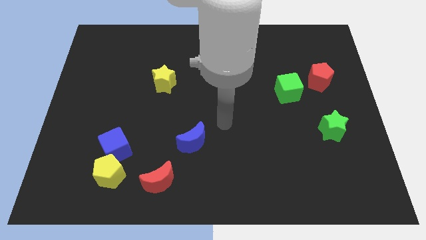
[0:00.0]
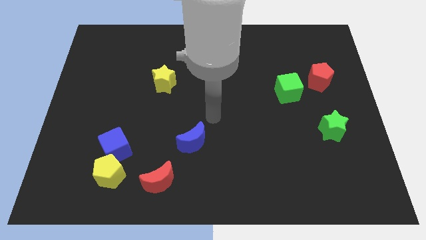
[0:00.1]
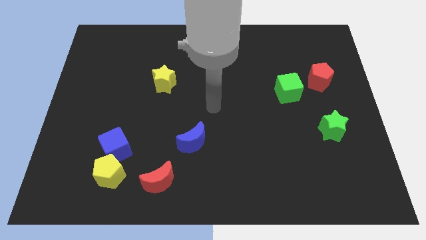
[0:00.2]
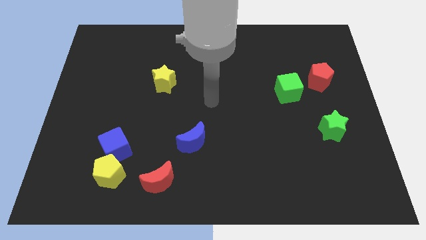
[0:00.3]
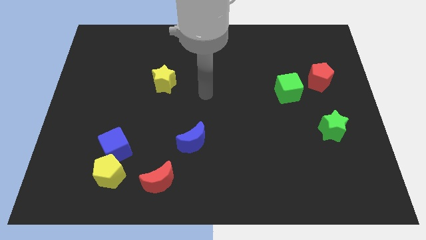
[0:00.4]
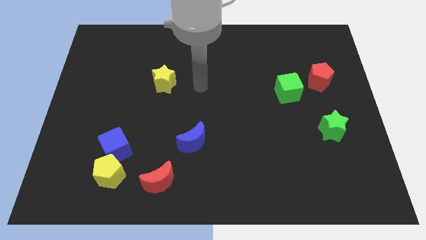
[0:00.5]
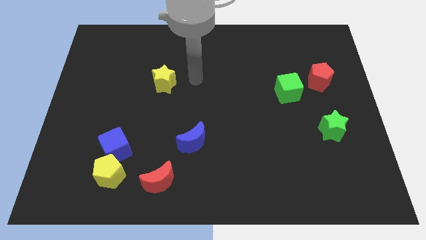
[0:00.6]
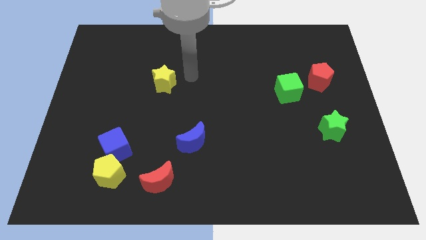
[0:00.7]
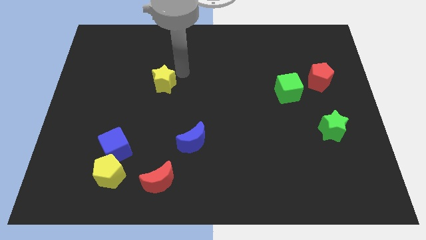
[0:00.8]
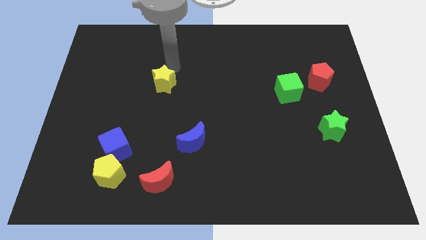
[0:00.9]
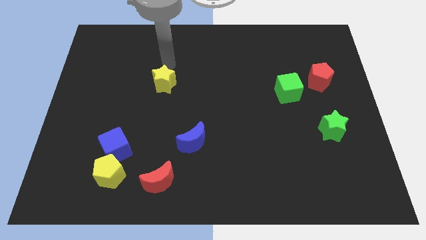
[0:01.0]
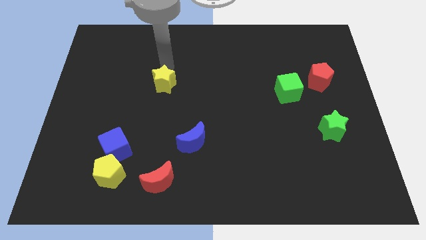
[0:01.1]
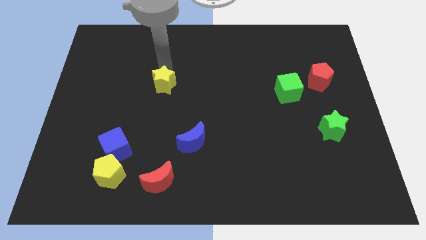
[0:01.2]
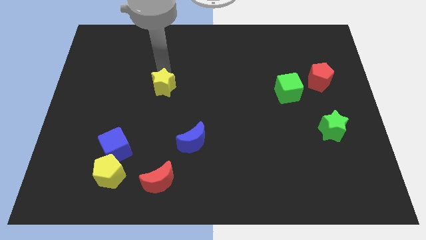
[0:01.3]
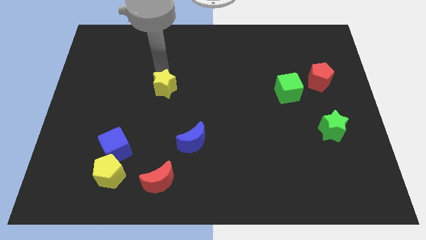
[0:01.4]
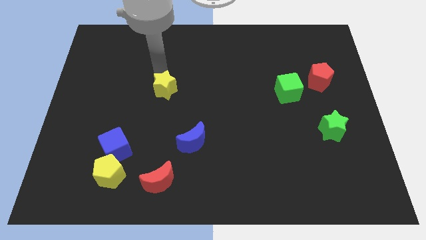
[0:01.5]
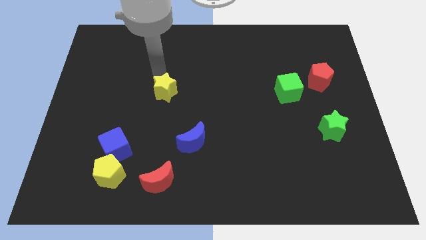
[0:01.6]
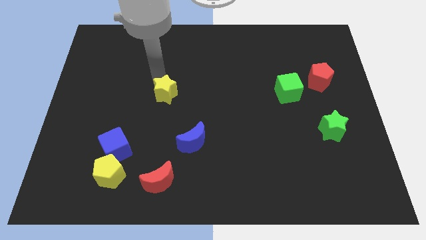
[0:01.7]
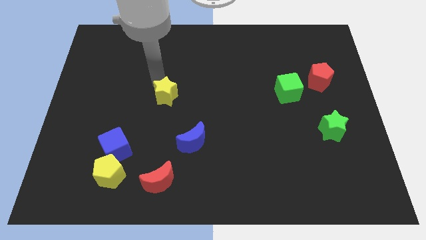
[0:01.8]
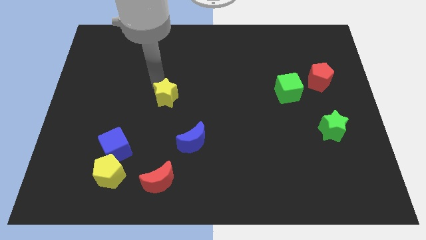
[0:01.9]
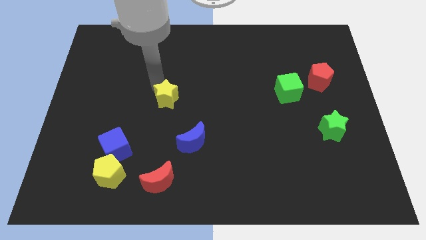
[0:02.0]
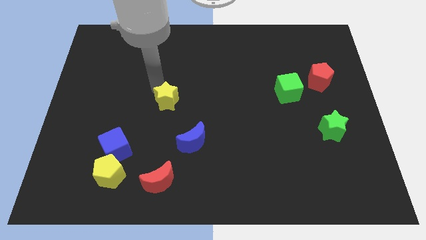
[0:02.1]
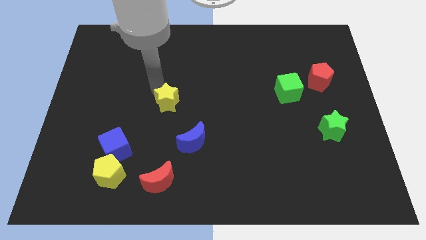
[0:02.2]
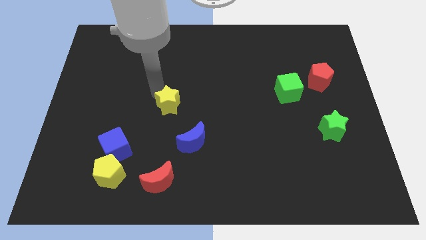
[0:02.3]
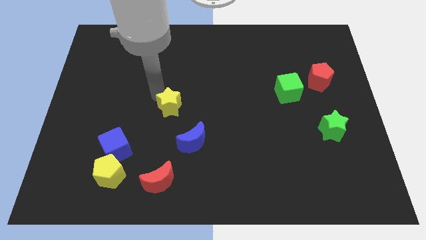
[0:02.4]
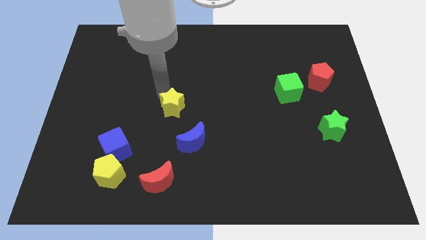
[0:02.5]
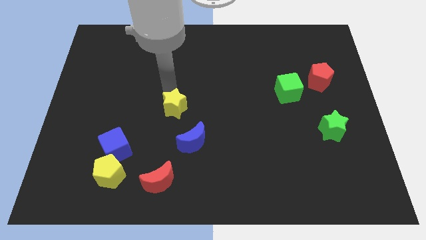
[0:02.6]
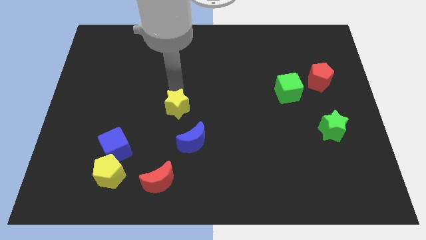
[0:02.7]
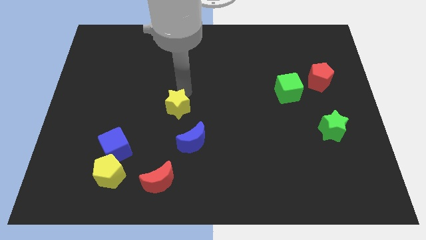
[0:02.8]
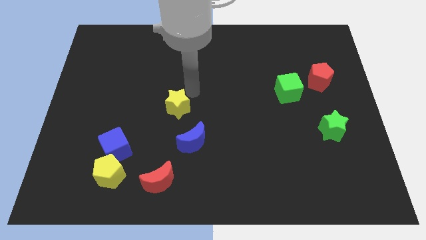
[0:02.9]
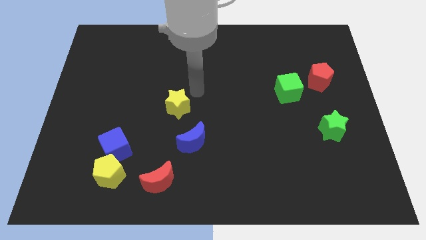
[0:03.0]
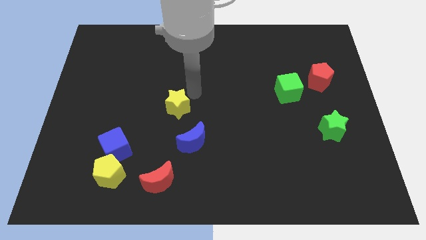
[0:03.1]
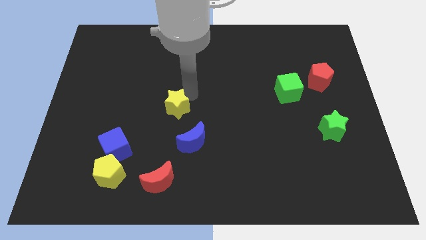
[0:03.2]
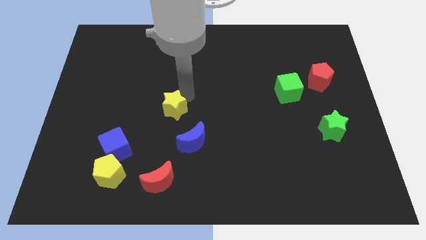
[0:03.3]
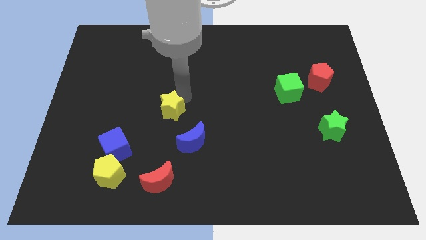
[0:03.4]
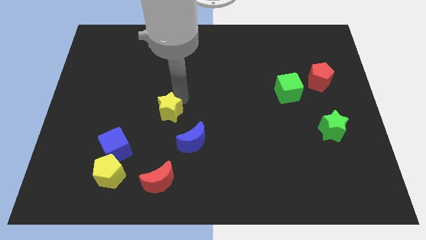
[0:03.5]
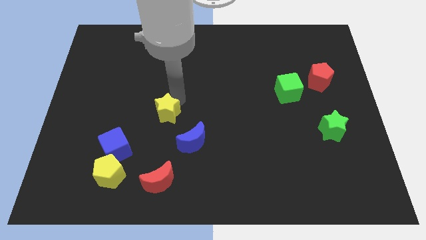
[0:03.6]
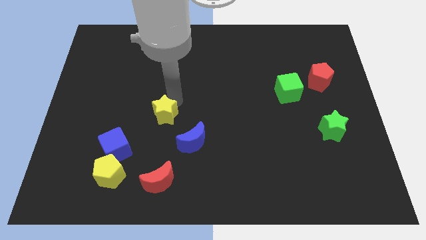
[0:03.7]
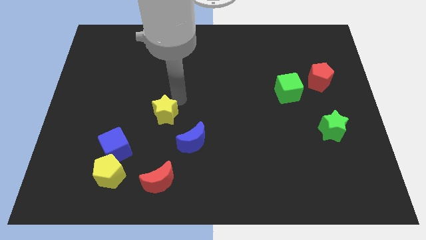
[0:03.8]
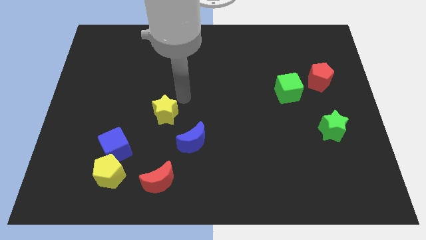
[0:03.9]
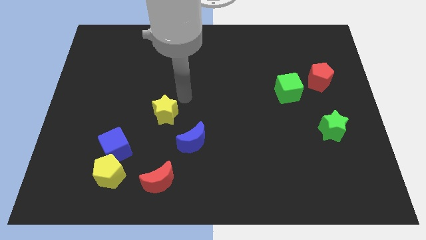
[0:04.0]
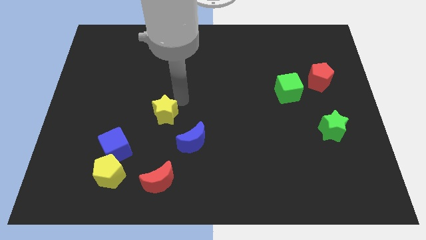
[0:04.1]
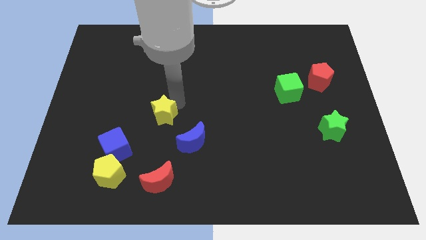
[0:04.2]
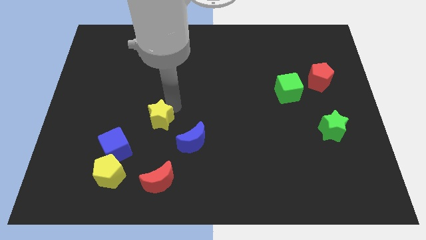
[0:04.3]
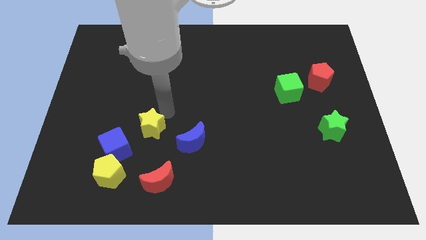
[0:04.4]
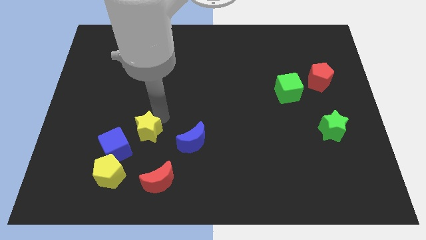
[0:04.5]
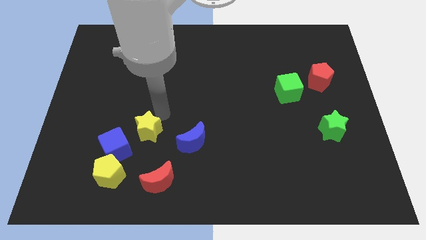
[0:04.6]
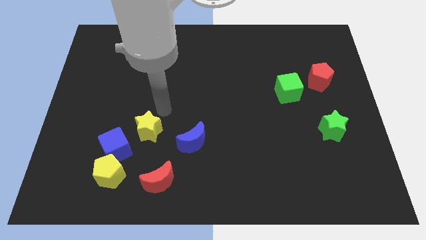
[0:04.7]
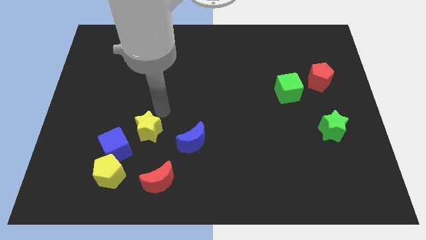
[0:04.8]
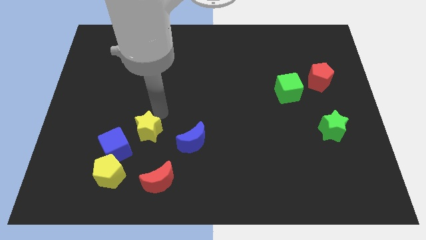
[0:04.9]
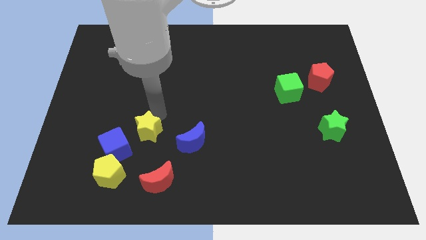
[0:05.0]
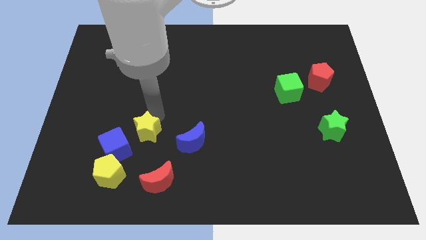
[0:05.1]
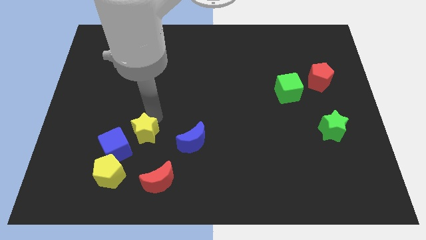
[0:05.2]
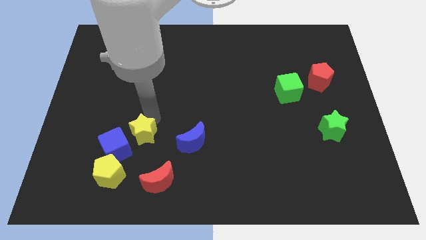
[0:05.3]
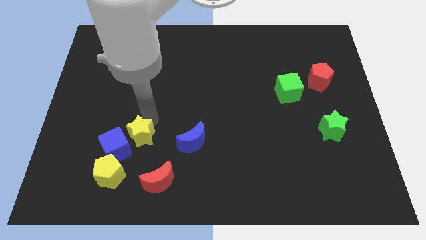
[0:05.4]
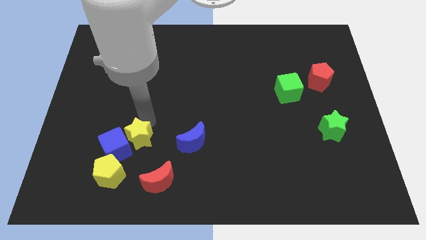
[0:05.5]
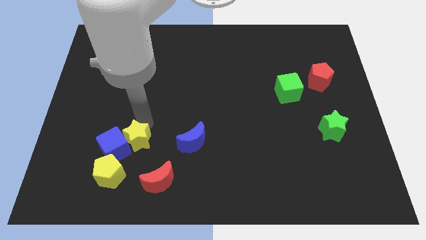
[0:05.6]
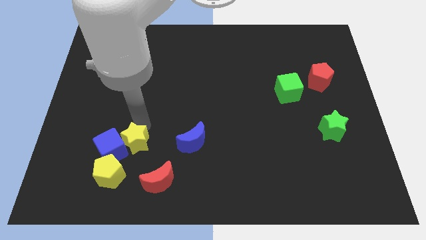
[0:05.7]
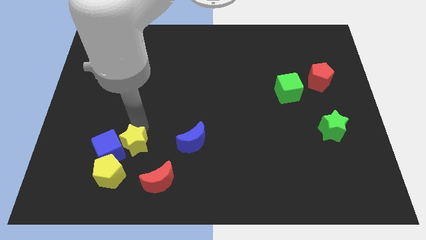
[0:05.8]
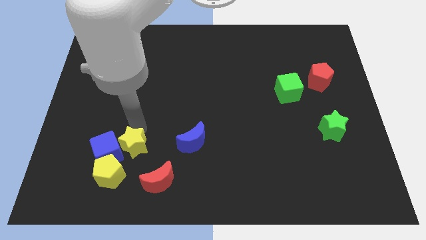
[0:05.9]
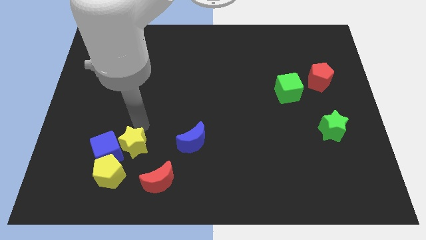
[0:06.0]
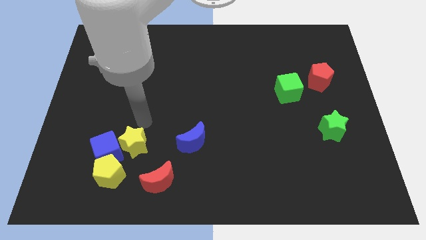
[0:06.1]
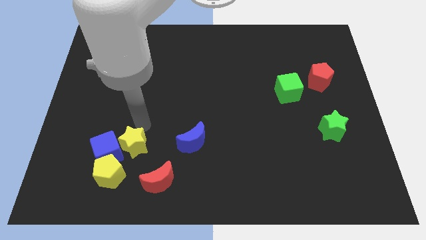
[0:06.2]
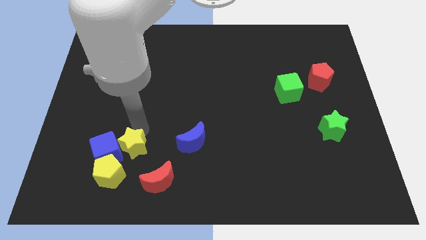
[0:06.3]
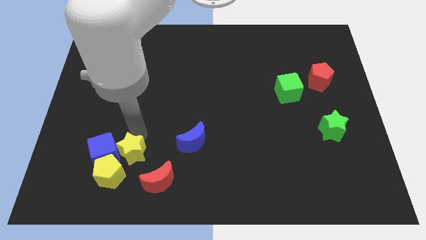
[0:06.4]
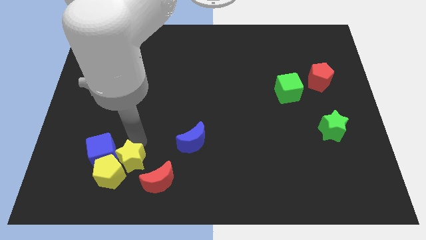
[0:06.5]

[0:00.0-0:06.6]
push the yellow star towards the yellow pentagon

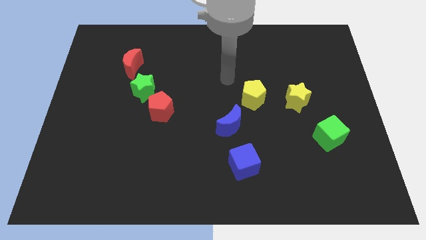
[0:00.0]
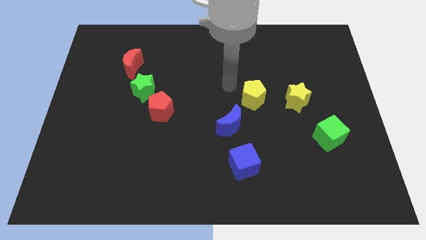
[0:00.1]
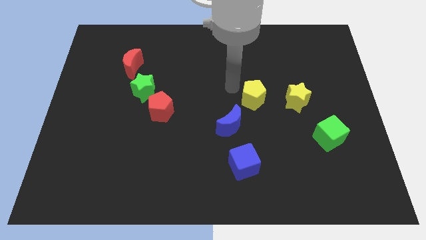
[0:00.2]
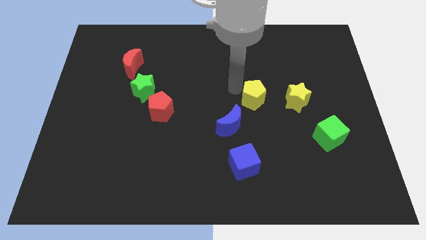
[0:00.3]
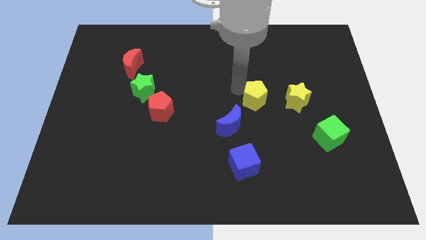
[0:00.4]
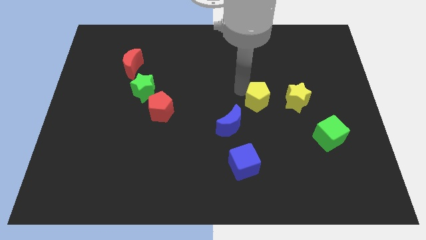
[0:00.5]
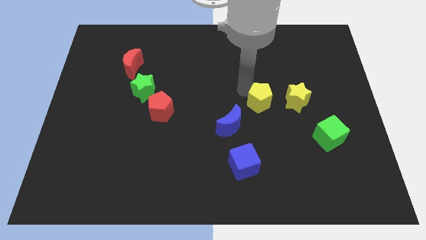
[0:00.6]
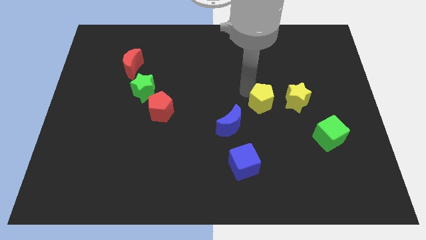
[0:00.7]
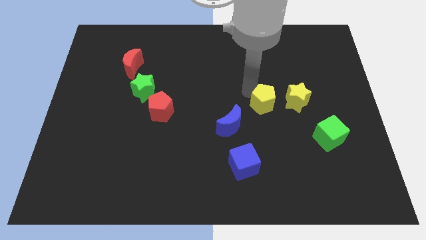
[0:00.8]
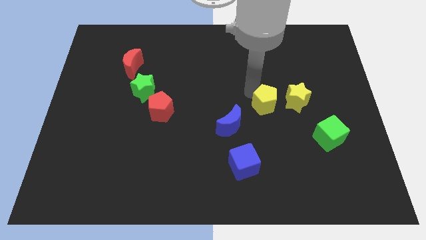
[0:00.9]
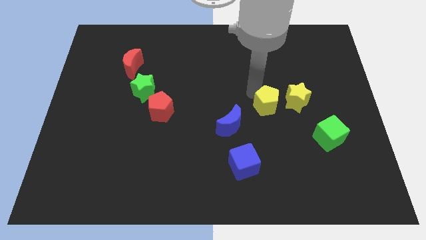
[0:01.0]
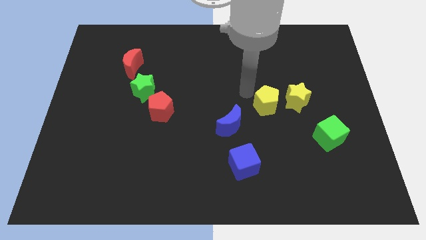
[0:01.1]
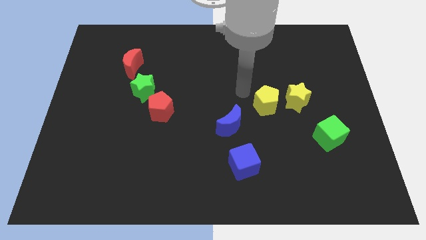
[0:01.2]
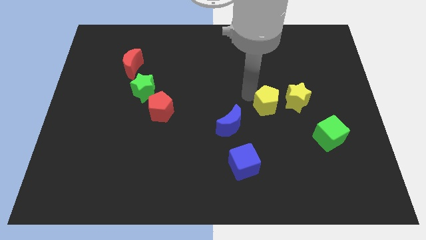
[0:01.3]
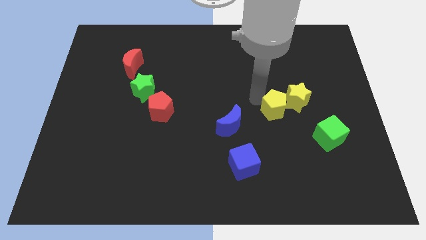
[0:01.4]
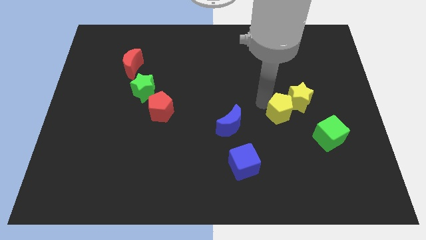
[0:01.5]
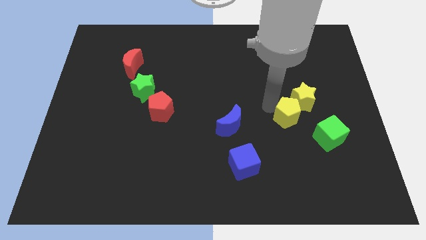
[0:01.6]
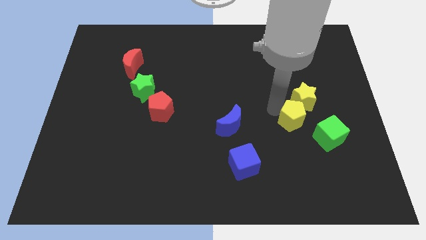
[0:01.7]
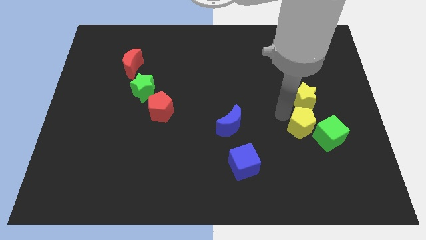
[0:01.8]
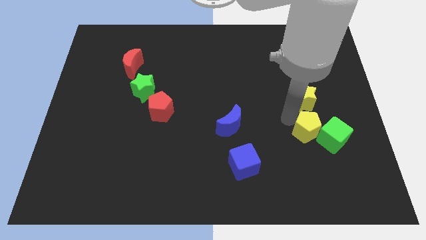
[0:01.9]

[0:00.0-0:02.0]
put the yellow pentagon next to the green cube
